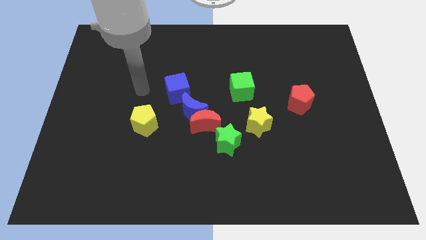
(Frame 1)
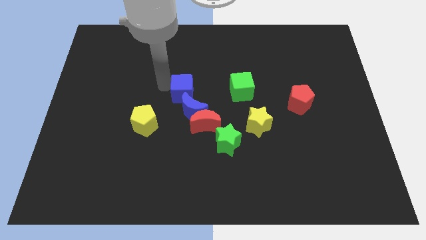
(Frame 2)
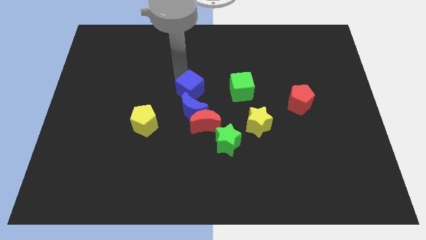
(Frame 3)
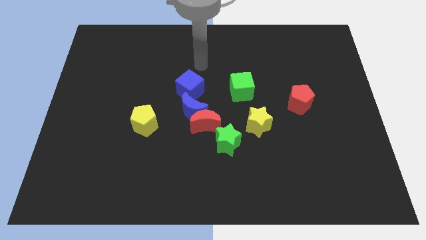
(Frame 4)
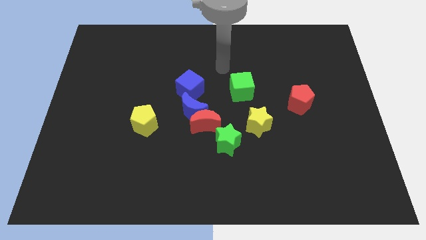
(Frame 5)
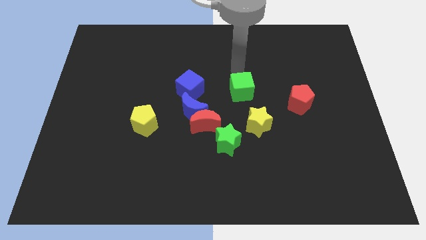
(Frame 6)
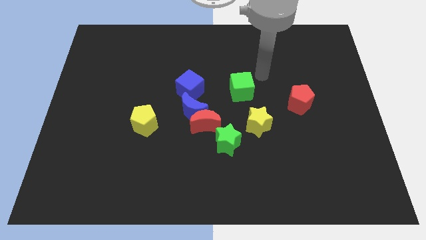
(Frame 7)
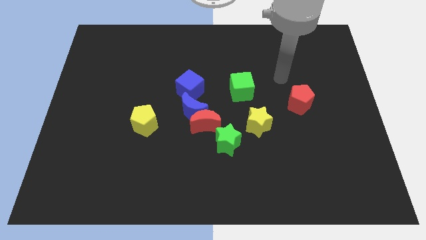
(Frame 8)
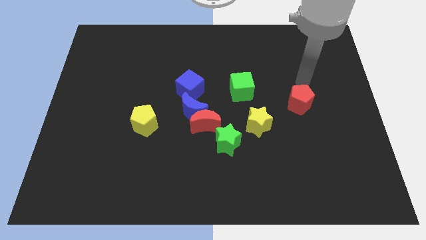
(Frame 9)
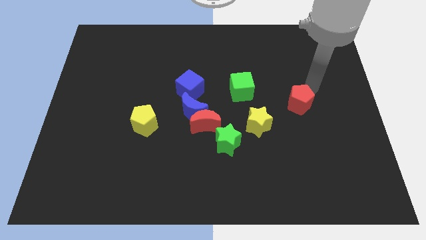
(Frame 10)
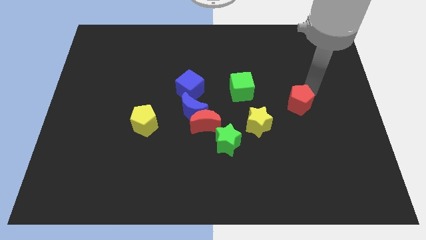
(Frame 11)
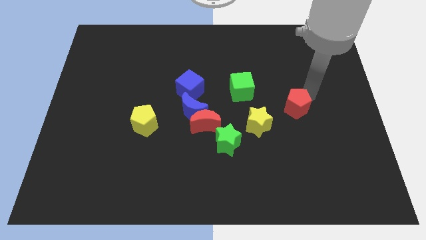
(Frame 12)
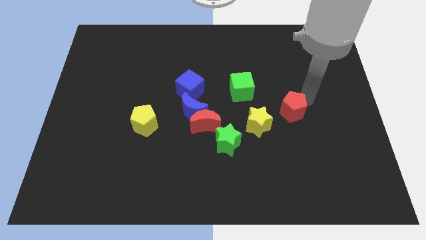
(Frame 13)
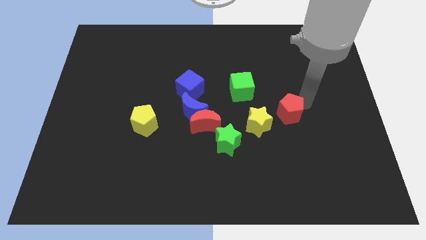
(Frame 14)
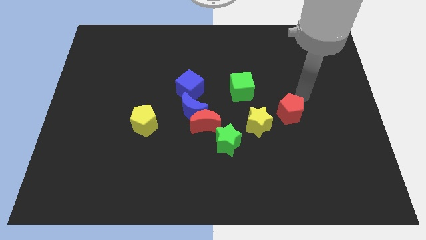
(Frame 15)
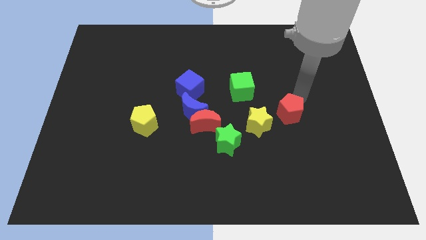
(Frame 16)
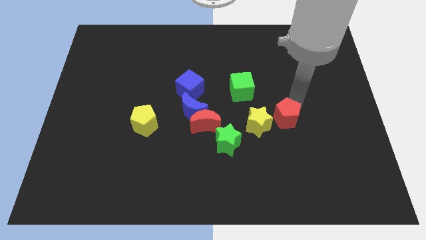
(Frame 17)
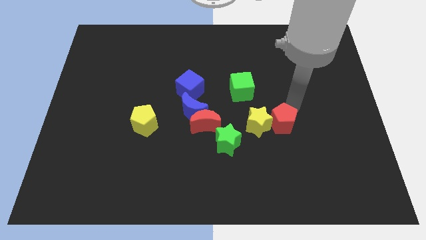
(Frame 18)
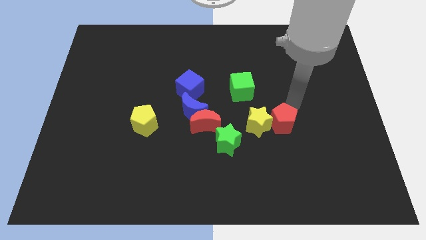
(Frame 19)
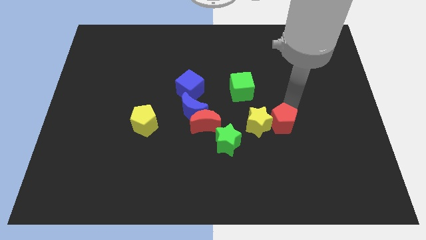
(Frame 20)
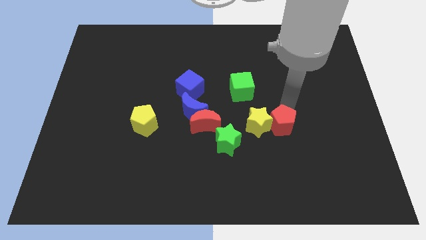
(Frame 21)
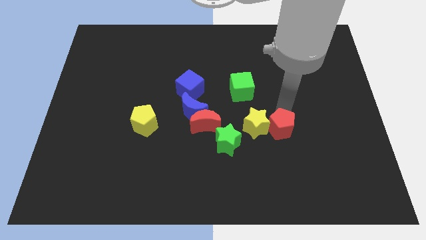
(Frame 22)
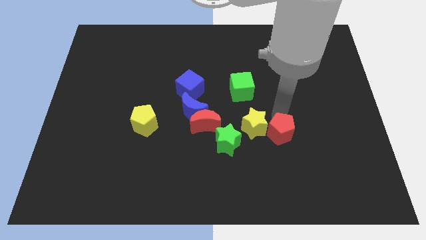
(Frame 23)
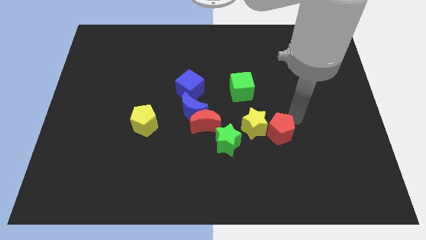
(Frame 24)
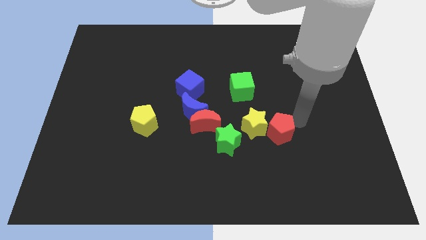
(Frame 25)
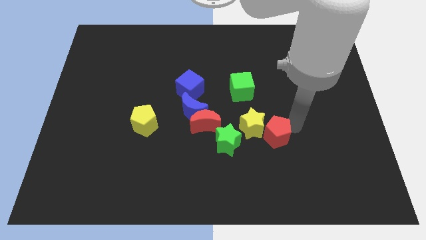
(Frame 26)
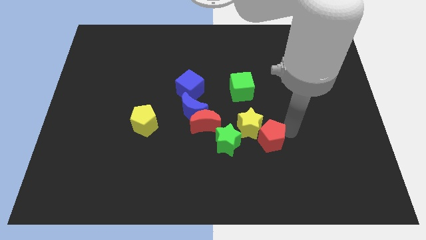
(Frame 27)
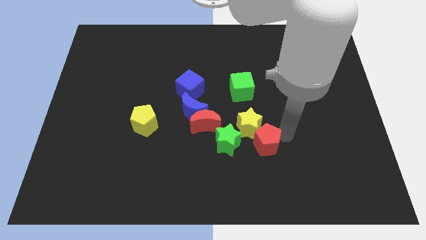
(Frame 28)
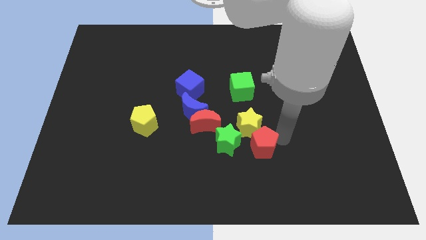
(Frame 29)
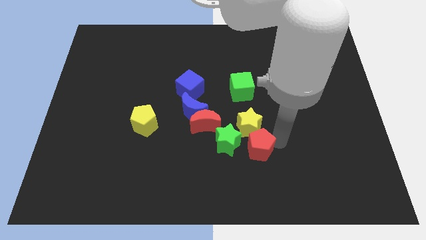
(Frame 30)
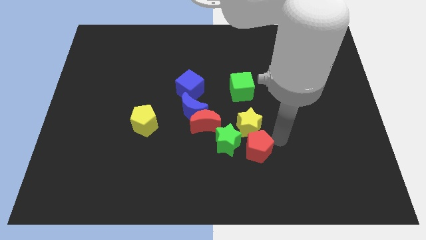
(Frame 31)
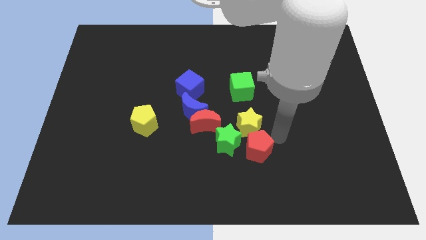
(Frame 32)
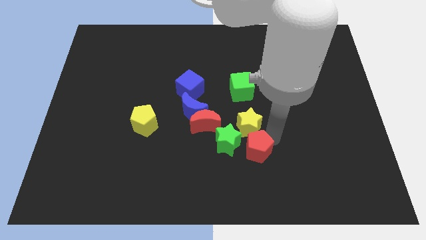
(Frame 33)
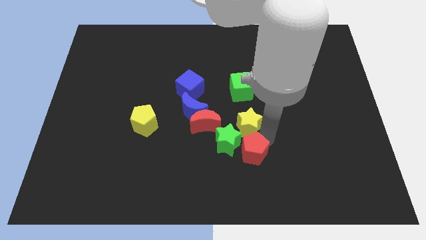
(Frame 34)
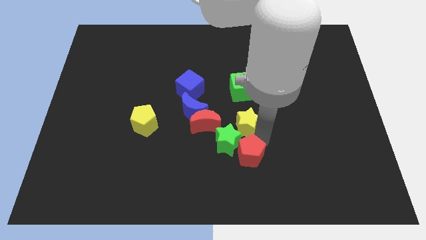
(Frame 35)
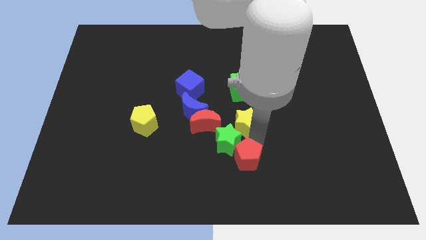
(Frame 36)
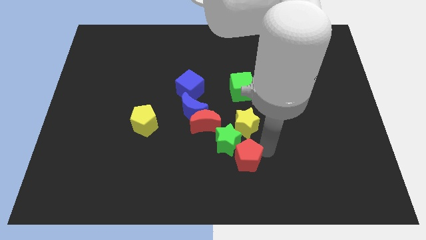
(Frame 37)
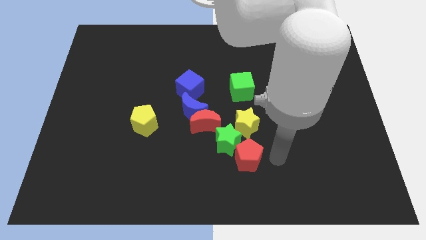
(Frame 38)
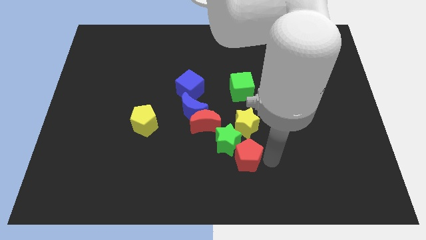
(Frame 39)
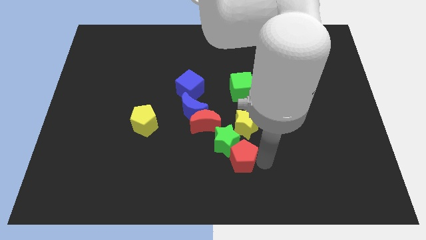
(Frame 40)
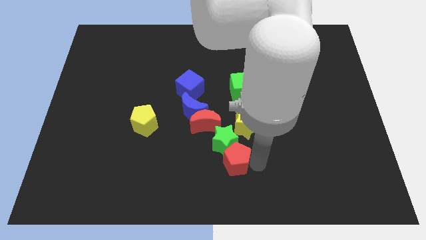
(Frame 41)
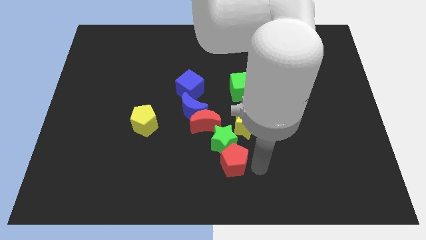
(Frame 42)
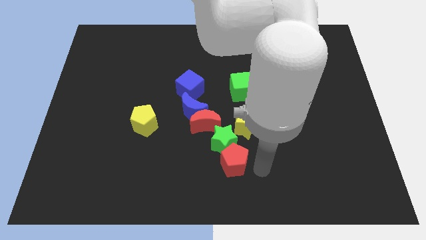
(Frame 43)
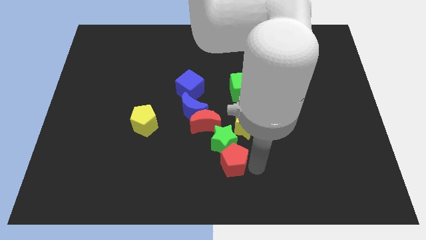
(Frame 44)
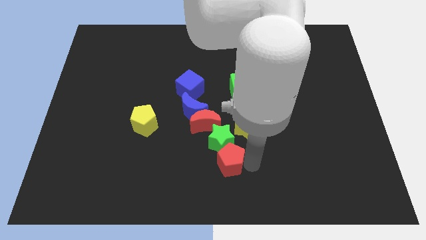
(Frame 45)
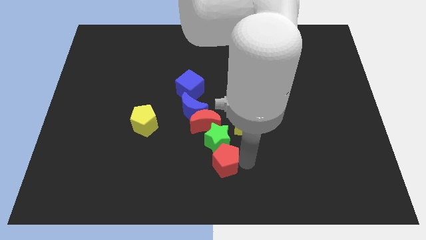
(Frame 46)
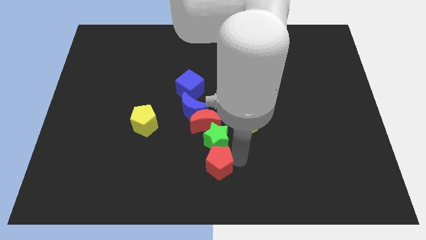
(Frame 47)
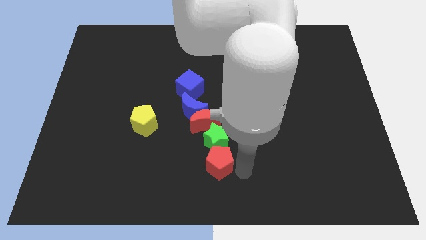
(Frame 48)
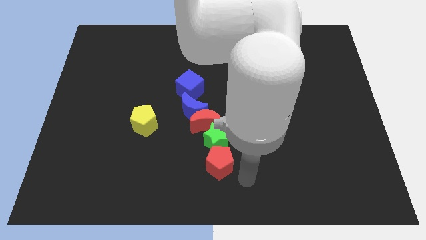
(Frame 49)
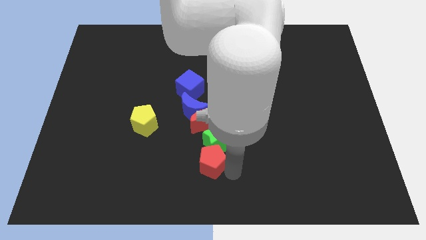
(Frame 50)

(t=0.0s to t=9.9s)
put the red pentagon to the bottom side of the blue moon

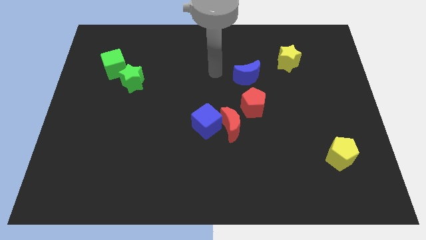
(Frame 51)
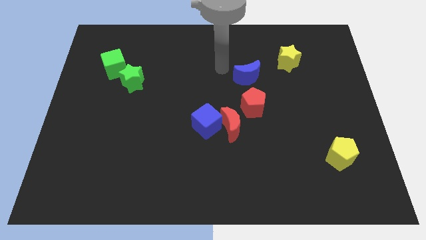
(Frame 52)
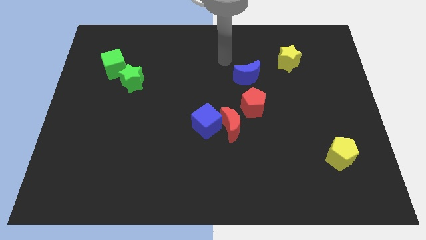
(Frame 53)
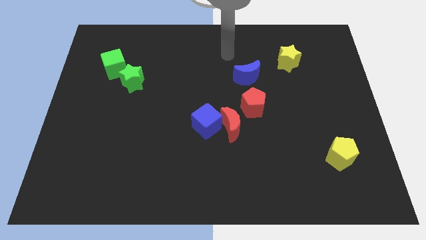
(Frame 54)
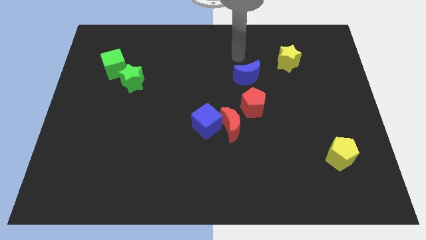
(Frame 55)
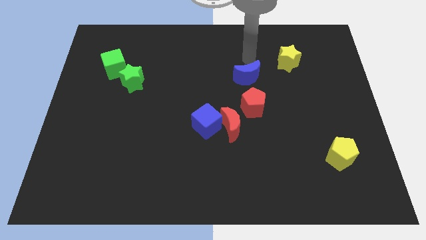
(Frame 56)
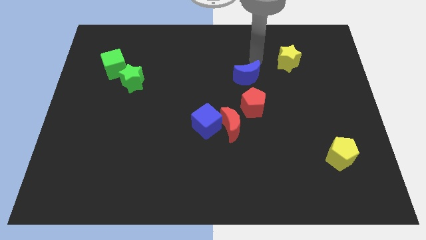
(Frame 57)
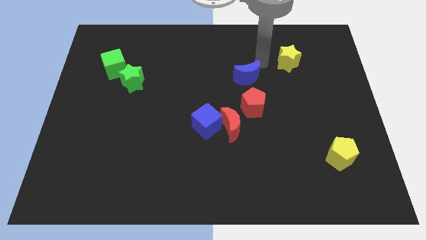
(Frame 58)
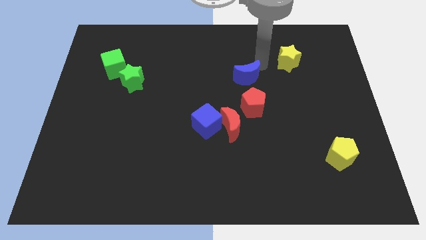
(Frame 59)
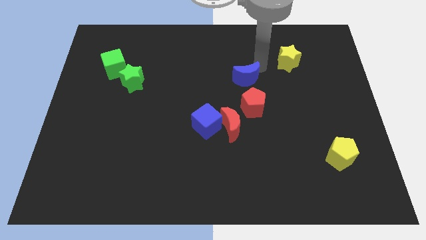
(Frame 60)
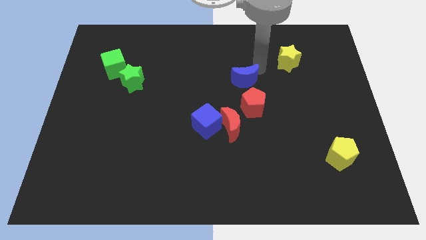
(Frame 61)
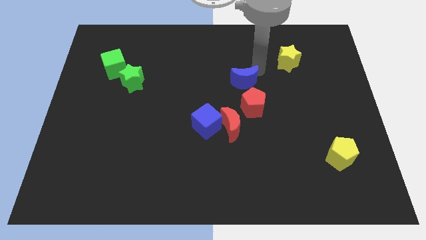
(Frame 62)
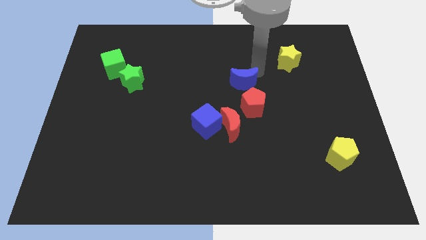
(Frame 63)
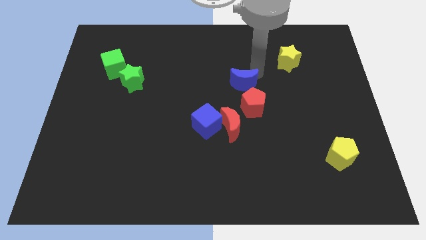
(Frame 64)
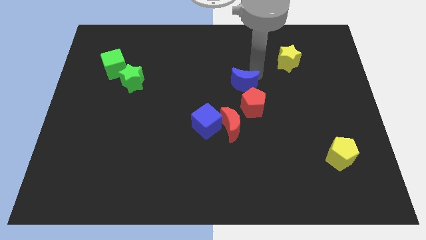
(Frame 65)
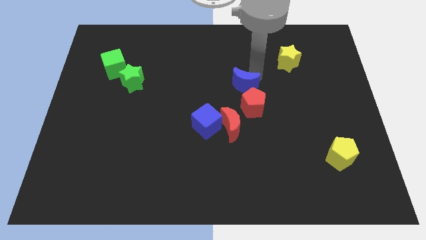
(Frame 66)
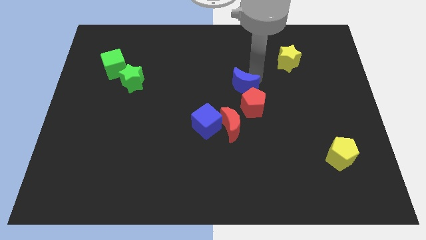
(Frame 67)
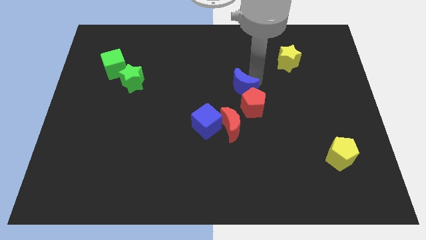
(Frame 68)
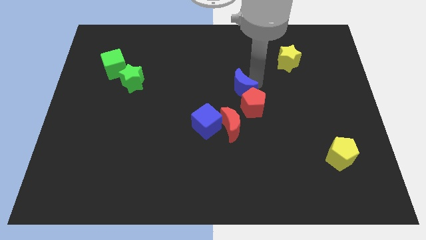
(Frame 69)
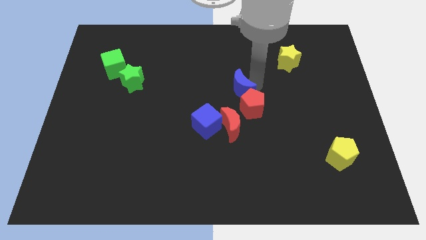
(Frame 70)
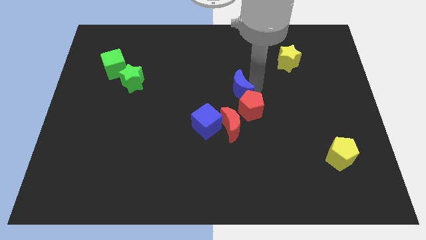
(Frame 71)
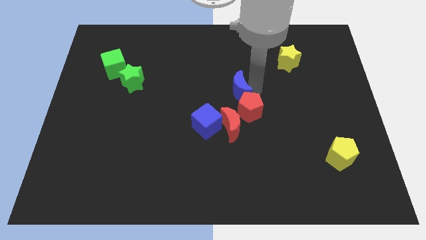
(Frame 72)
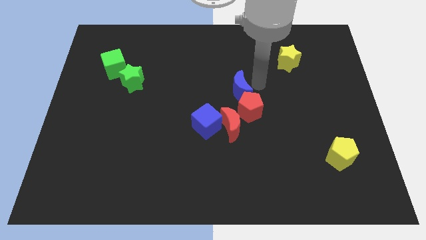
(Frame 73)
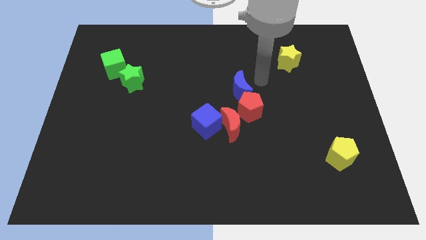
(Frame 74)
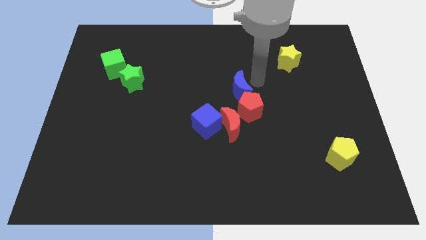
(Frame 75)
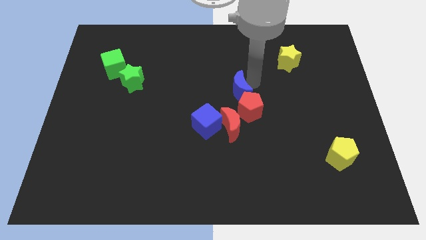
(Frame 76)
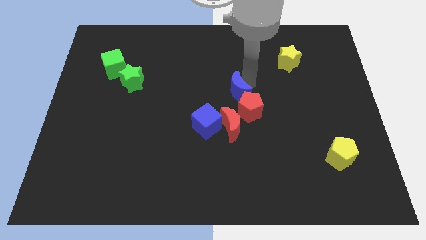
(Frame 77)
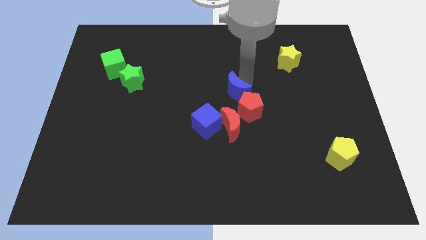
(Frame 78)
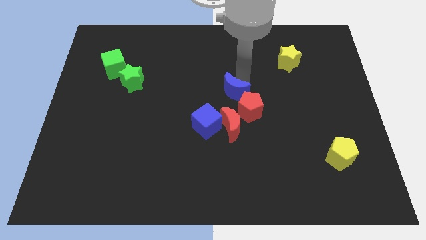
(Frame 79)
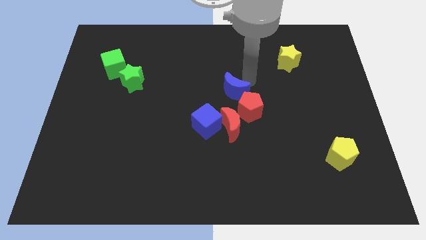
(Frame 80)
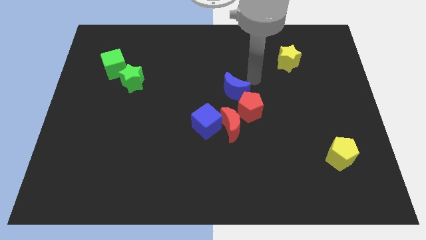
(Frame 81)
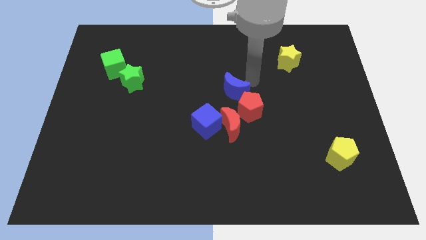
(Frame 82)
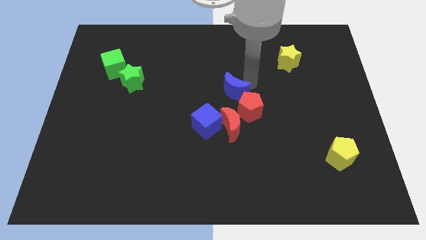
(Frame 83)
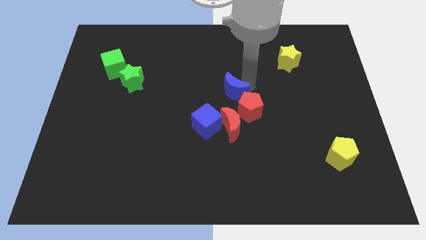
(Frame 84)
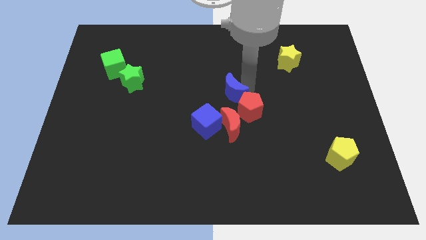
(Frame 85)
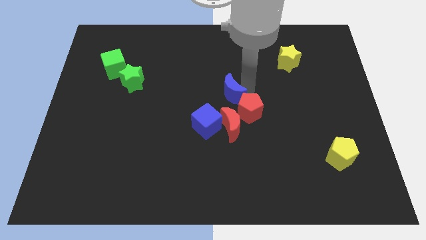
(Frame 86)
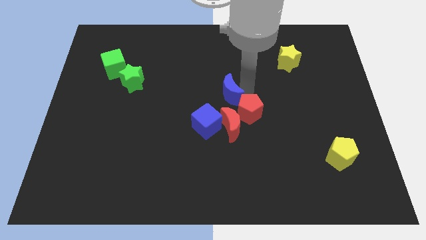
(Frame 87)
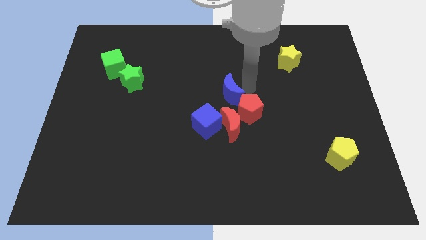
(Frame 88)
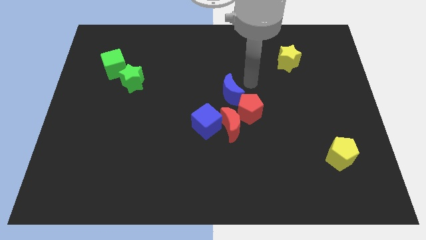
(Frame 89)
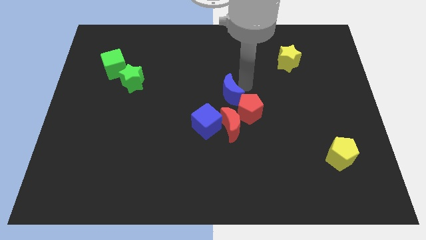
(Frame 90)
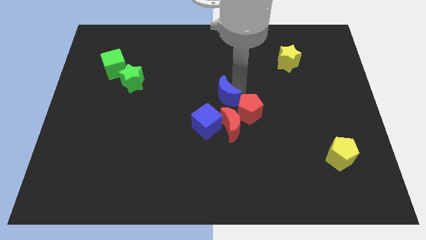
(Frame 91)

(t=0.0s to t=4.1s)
move the blue moon to the left side of the red pentagon
